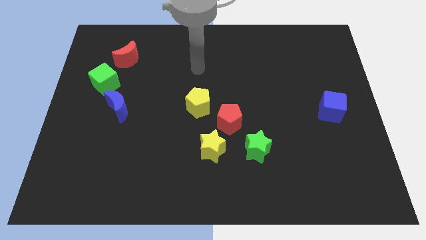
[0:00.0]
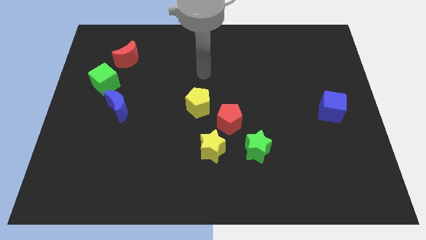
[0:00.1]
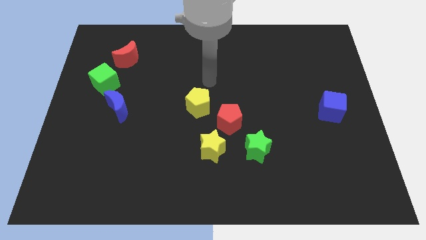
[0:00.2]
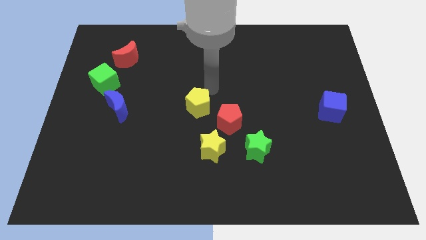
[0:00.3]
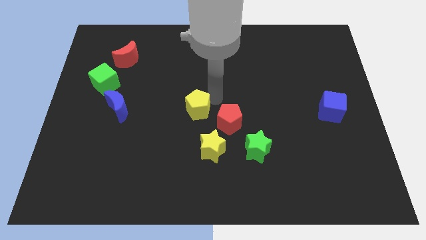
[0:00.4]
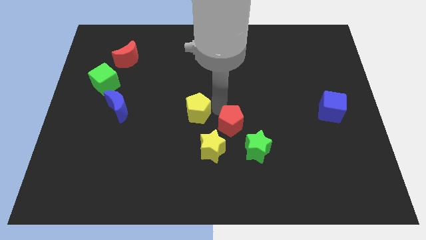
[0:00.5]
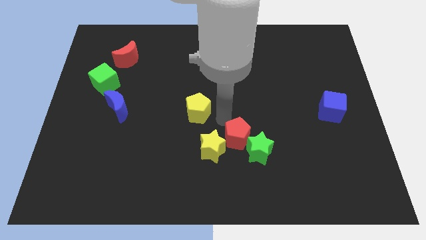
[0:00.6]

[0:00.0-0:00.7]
separate the yellow pentagon from the red pentagon

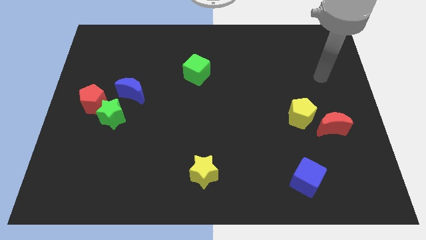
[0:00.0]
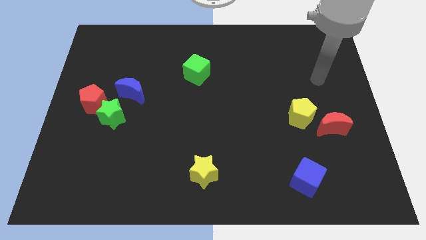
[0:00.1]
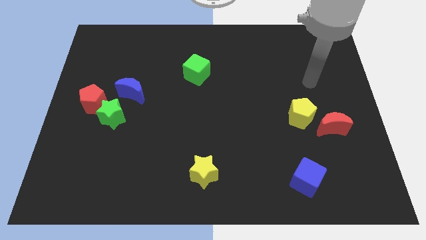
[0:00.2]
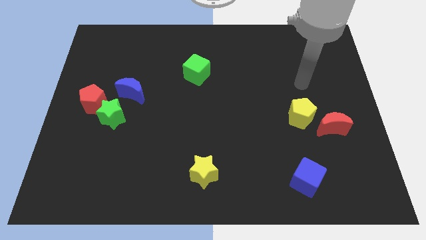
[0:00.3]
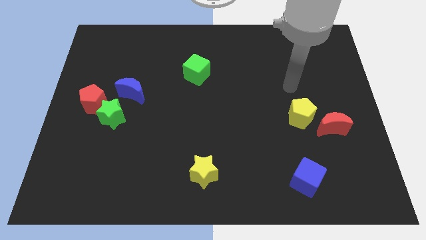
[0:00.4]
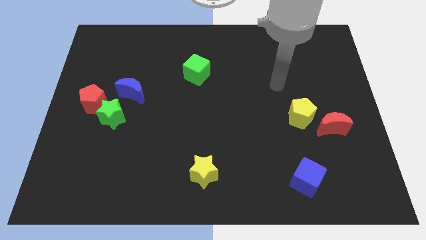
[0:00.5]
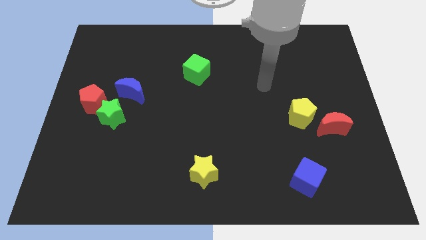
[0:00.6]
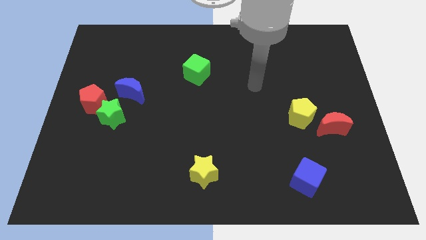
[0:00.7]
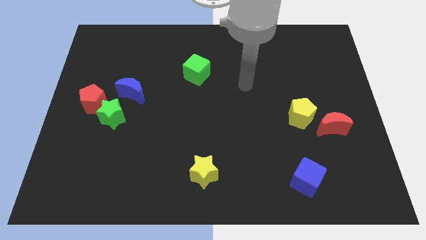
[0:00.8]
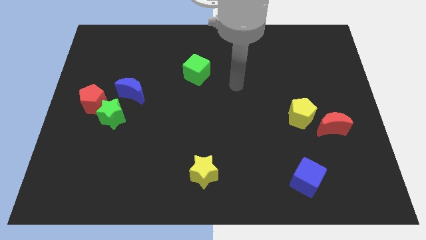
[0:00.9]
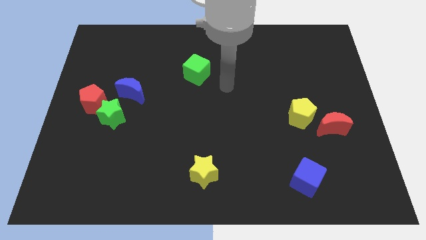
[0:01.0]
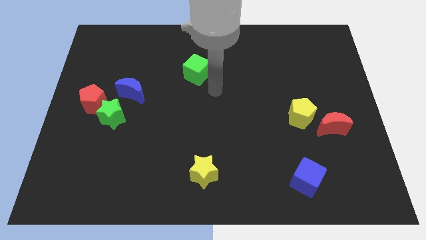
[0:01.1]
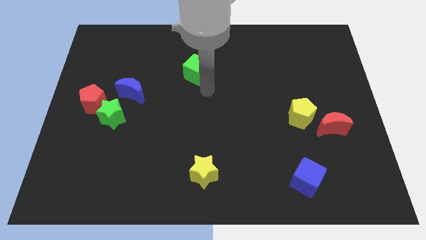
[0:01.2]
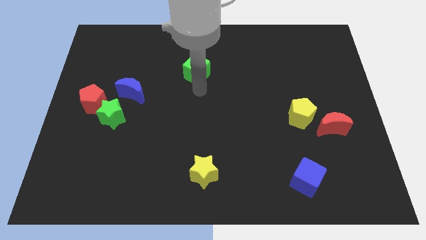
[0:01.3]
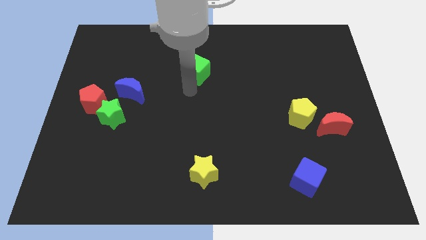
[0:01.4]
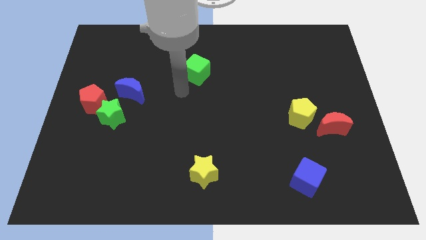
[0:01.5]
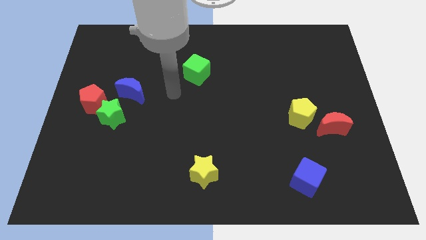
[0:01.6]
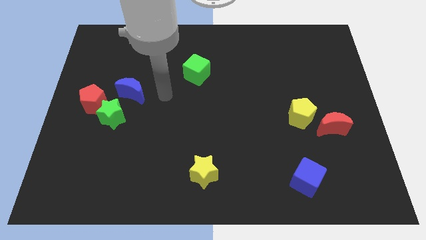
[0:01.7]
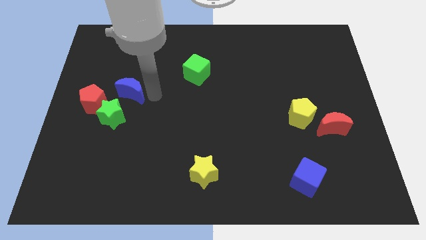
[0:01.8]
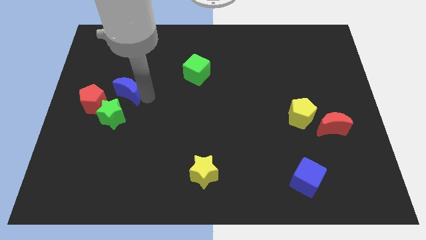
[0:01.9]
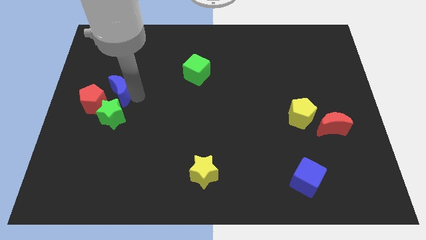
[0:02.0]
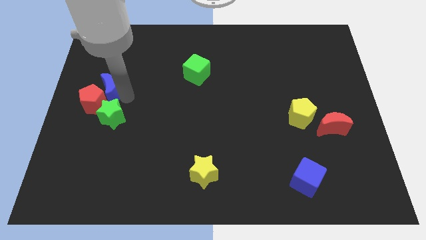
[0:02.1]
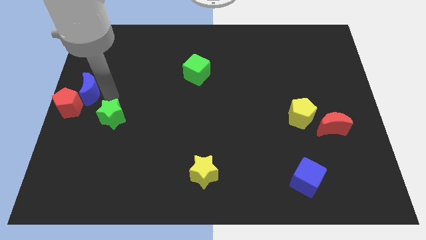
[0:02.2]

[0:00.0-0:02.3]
separate the green star from the red pentagon and blue moon

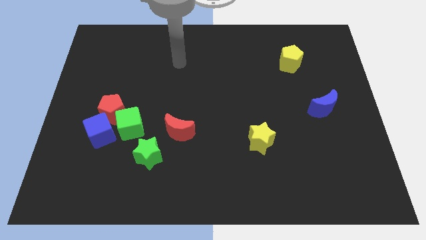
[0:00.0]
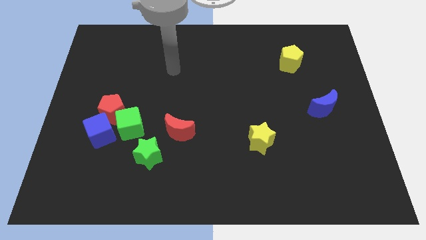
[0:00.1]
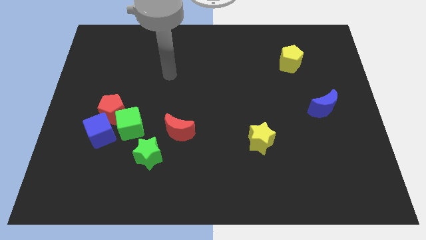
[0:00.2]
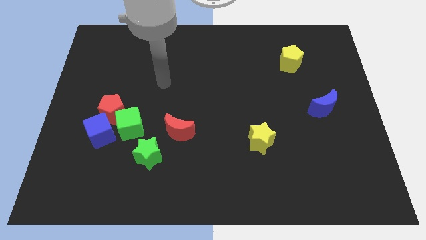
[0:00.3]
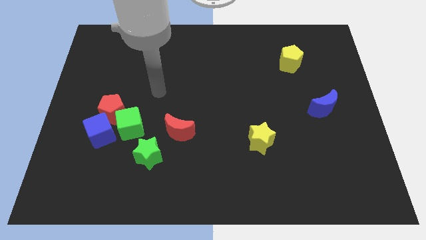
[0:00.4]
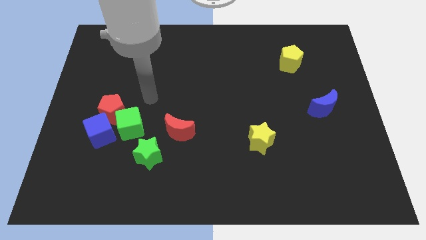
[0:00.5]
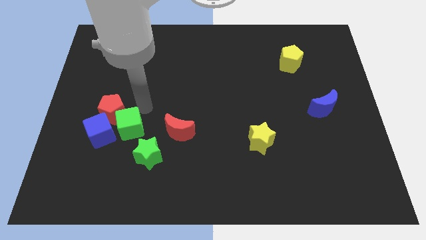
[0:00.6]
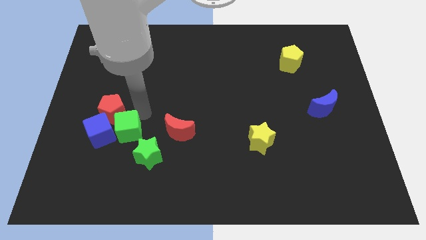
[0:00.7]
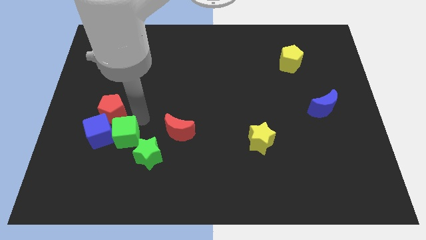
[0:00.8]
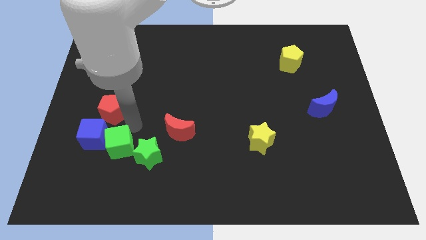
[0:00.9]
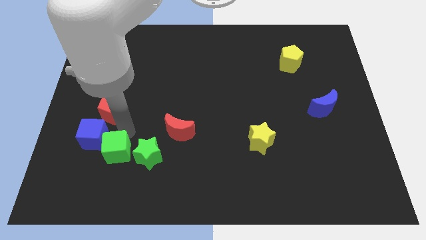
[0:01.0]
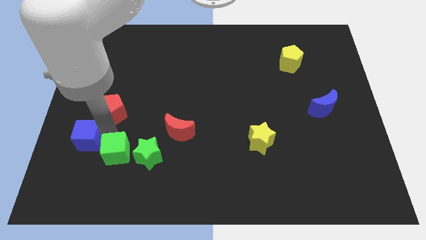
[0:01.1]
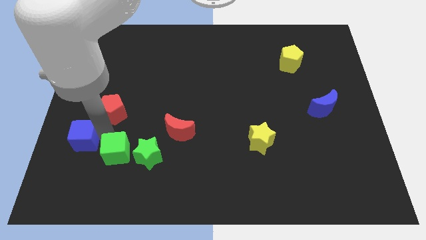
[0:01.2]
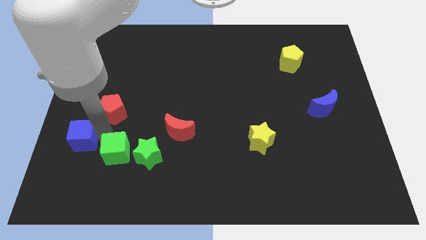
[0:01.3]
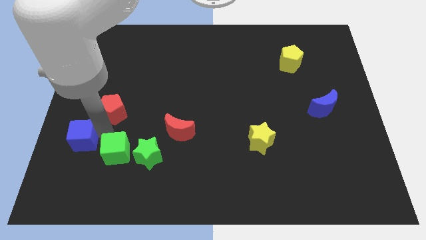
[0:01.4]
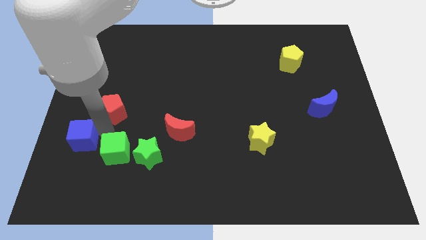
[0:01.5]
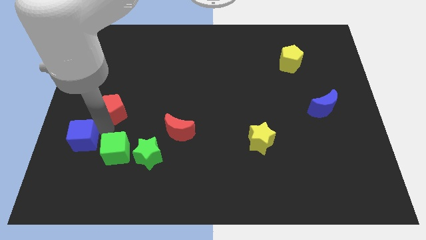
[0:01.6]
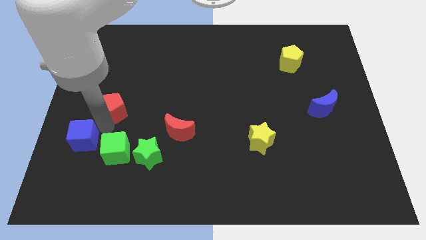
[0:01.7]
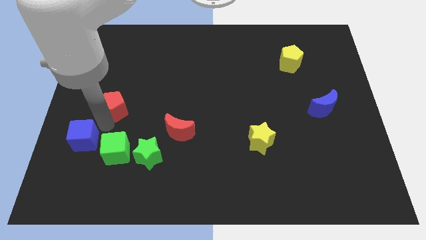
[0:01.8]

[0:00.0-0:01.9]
move the red pentagon away from the green cube and blue cube

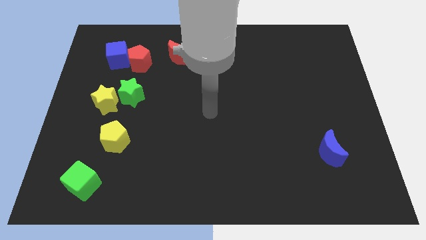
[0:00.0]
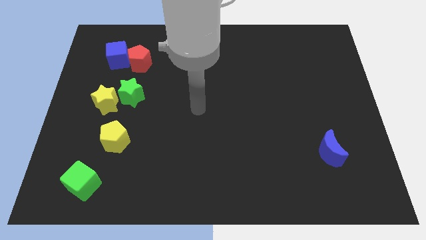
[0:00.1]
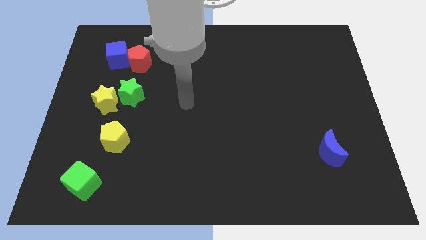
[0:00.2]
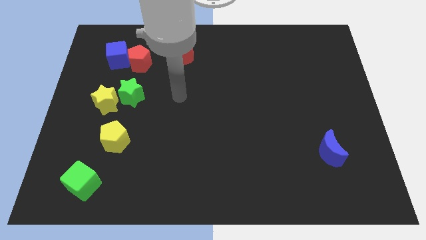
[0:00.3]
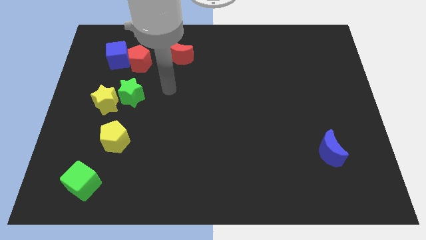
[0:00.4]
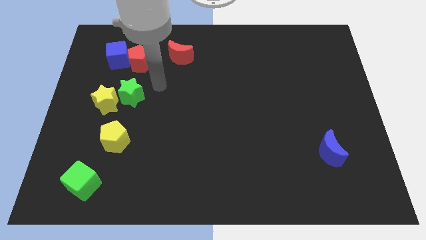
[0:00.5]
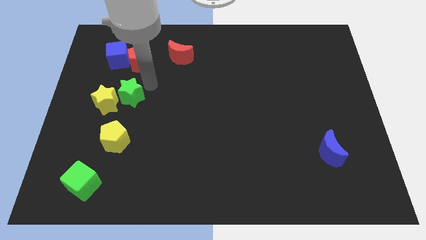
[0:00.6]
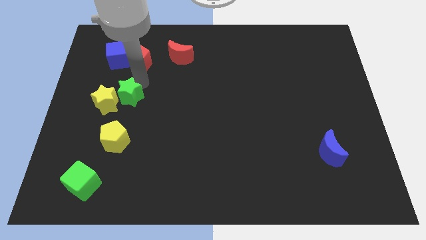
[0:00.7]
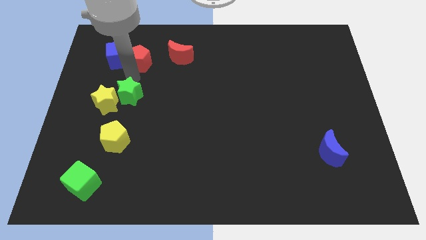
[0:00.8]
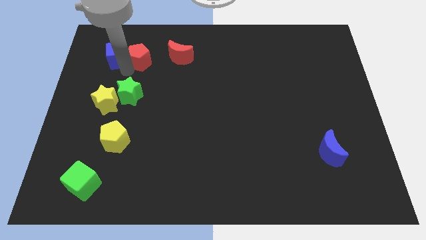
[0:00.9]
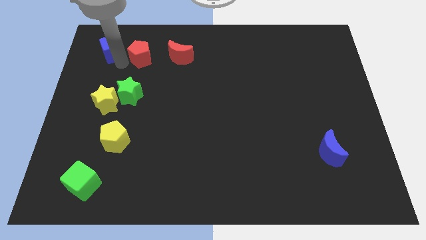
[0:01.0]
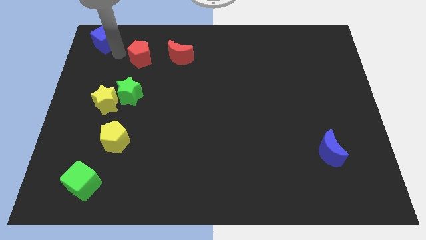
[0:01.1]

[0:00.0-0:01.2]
move the red pentagon away from the blue cube

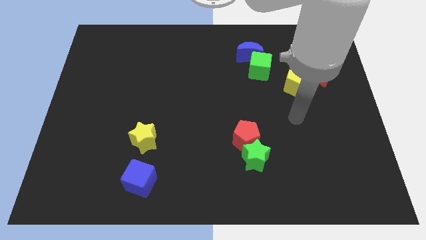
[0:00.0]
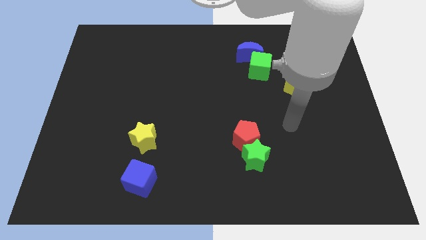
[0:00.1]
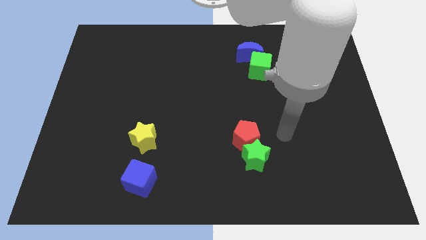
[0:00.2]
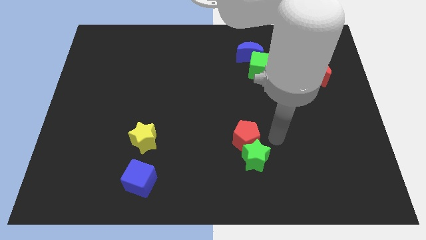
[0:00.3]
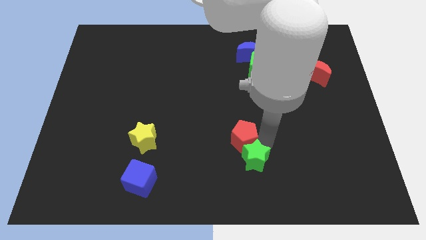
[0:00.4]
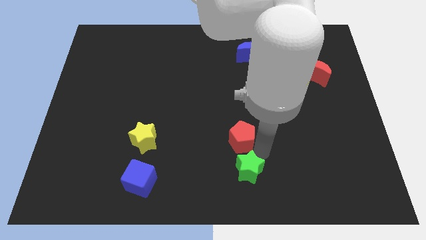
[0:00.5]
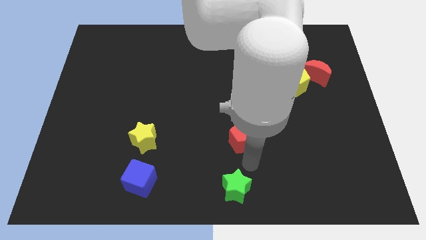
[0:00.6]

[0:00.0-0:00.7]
pull the red pentagon apart from the green star

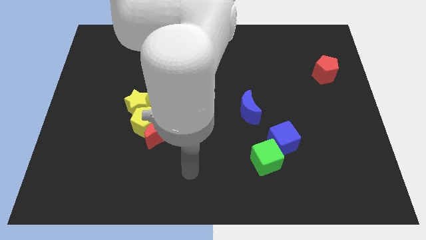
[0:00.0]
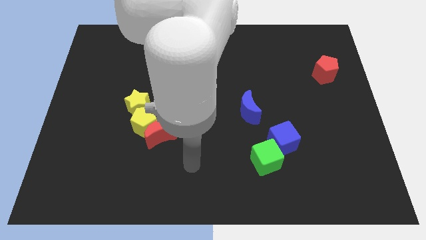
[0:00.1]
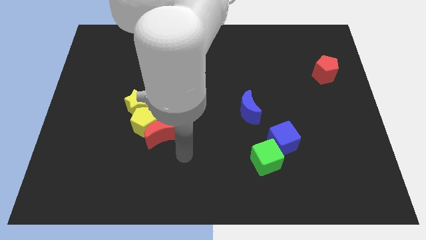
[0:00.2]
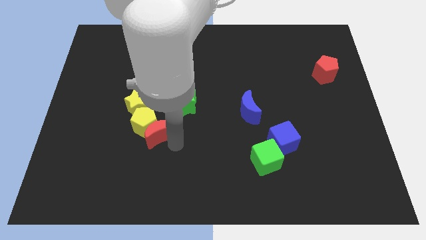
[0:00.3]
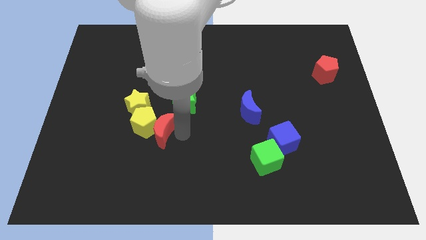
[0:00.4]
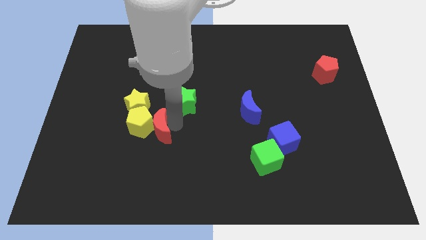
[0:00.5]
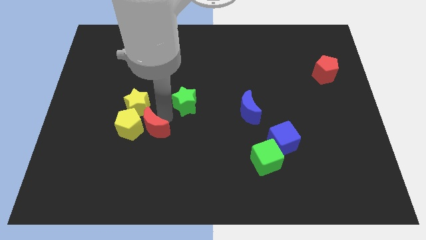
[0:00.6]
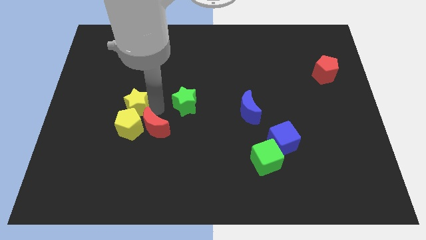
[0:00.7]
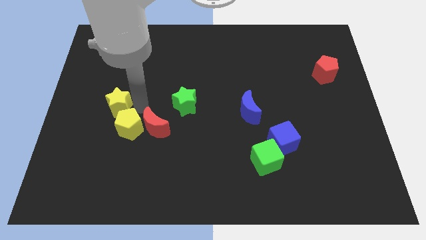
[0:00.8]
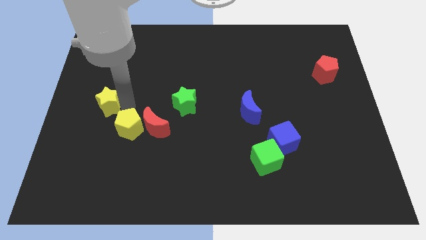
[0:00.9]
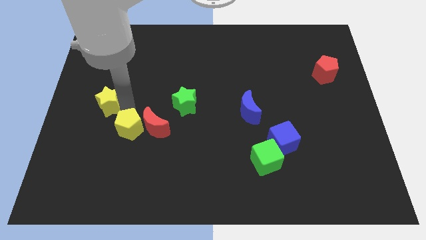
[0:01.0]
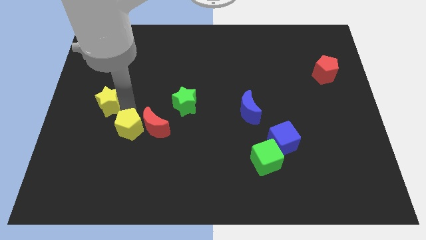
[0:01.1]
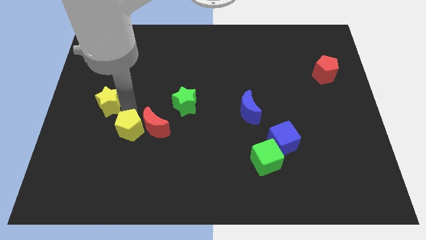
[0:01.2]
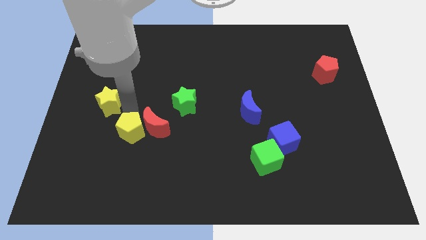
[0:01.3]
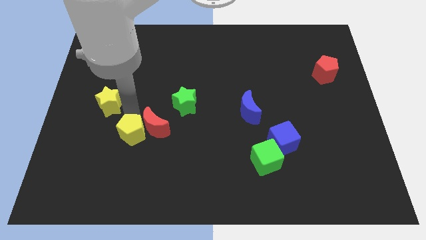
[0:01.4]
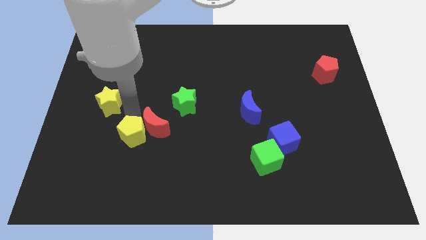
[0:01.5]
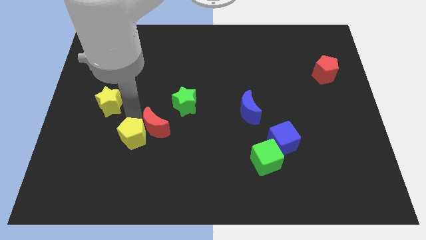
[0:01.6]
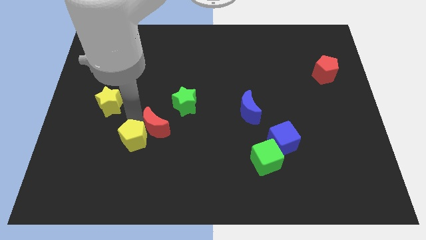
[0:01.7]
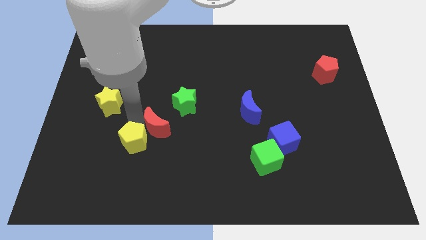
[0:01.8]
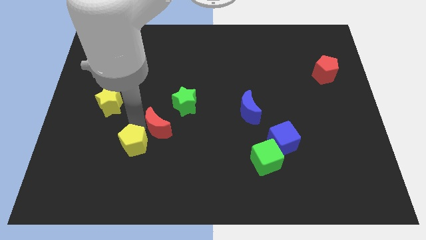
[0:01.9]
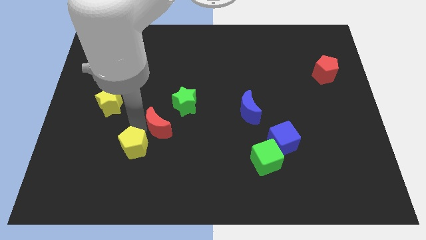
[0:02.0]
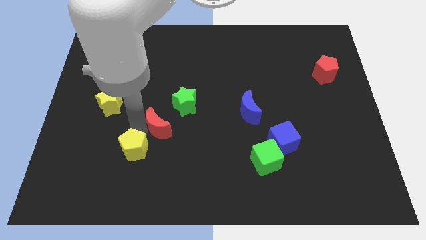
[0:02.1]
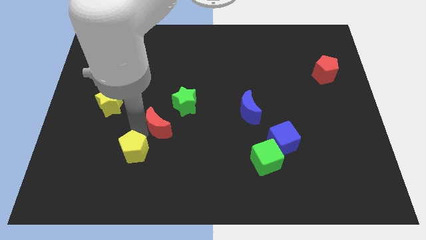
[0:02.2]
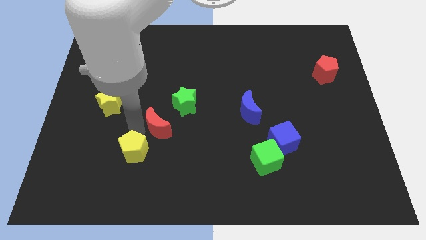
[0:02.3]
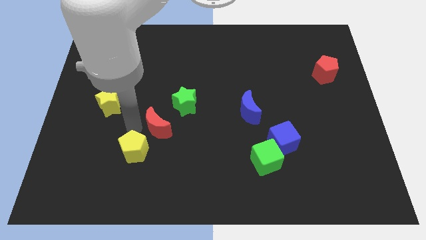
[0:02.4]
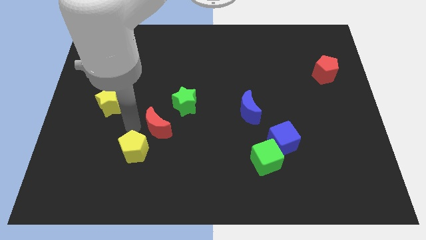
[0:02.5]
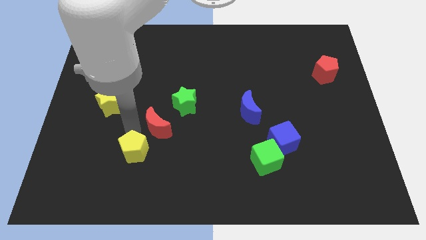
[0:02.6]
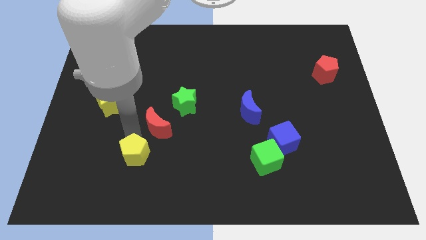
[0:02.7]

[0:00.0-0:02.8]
move the yellow pentagon away from the red moon and yellow star
